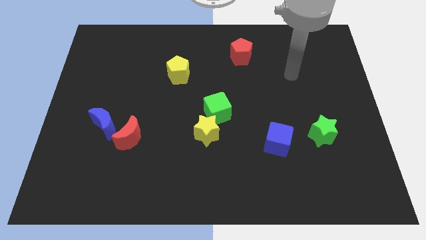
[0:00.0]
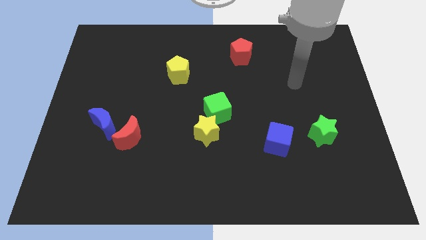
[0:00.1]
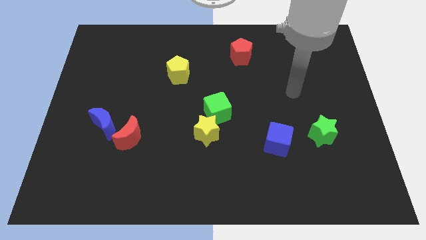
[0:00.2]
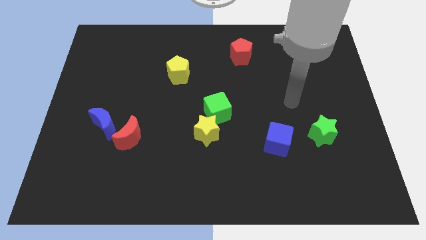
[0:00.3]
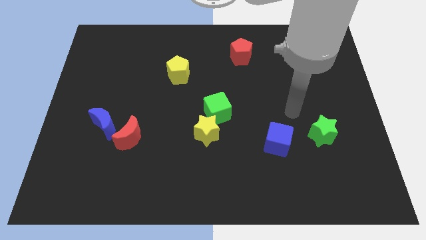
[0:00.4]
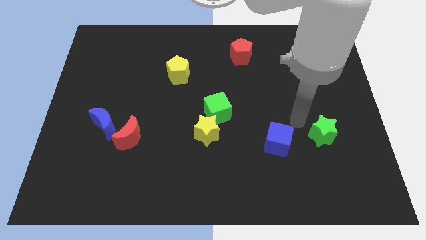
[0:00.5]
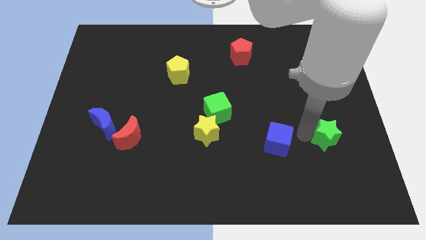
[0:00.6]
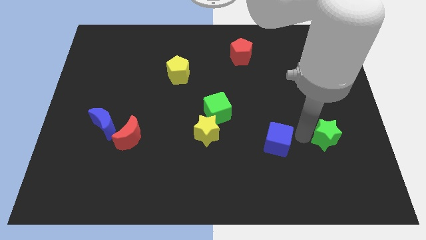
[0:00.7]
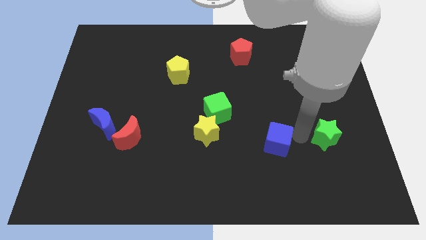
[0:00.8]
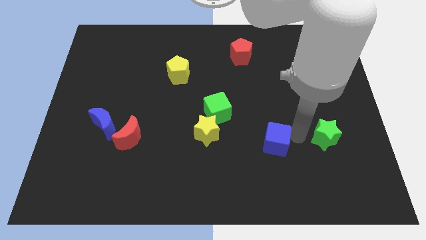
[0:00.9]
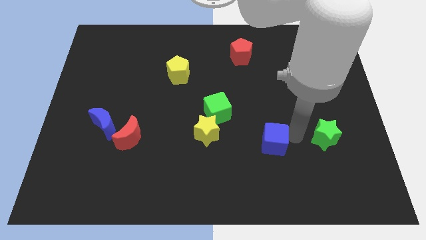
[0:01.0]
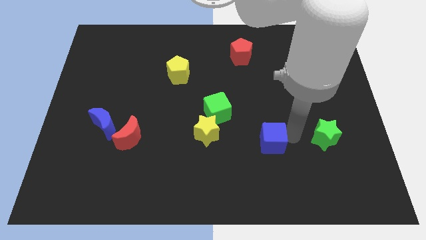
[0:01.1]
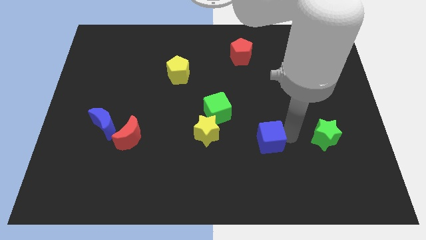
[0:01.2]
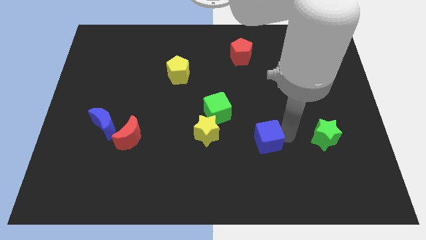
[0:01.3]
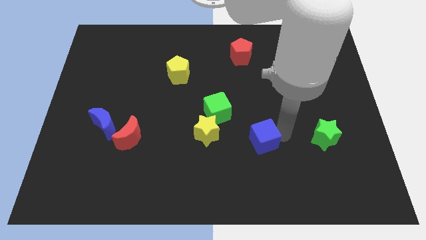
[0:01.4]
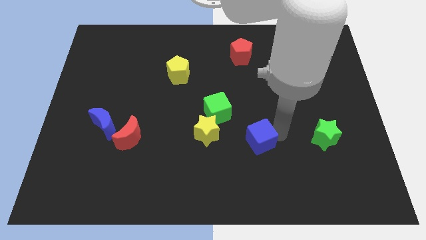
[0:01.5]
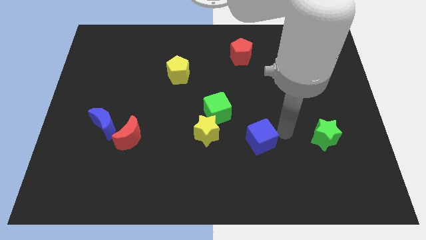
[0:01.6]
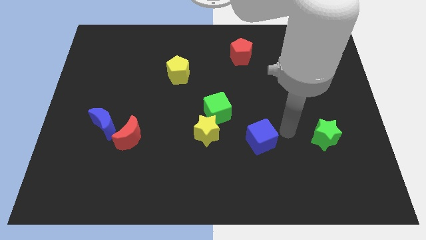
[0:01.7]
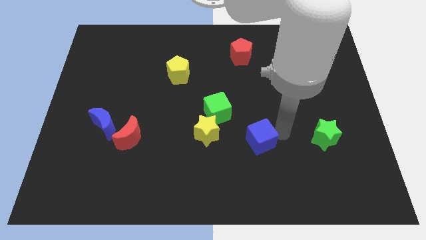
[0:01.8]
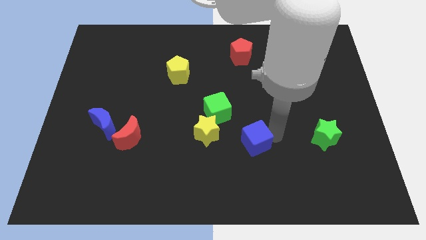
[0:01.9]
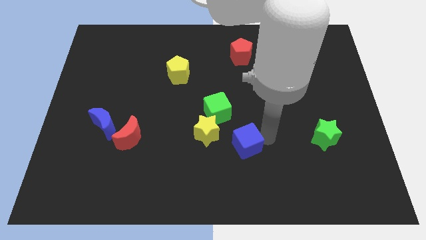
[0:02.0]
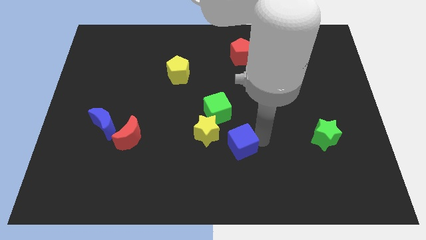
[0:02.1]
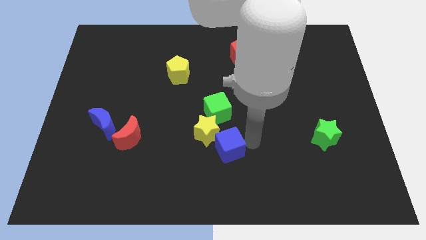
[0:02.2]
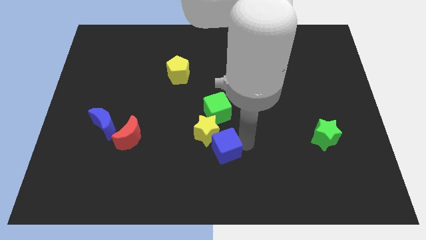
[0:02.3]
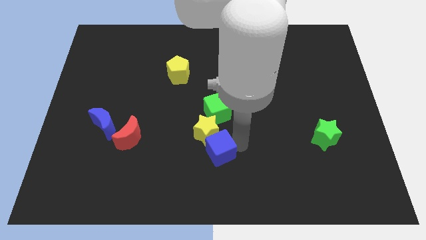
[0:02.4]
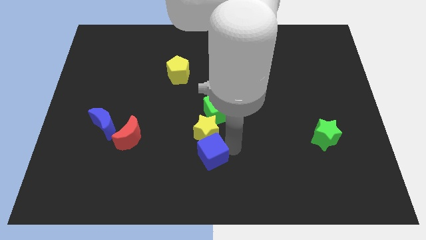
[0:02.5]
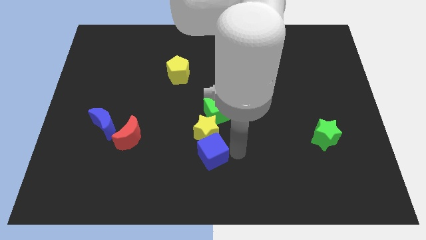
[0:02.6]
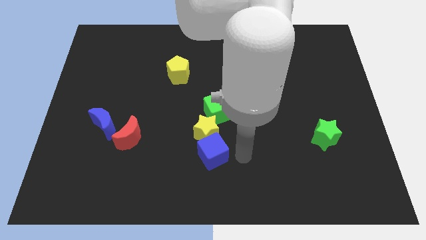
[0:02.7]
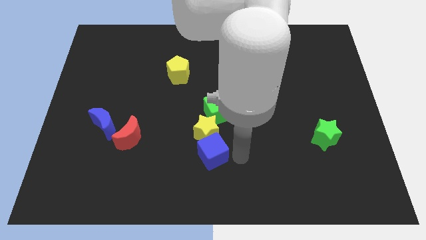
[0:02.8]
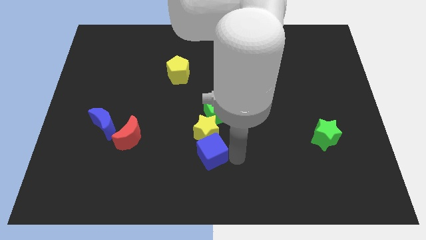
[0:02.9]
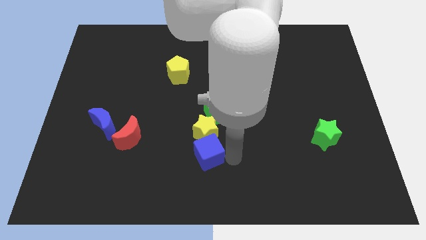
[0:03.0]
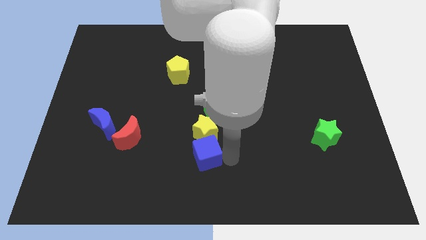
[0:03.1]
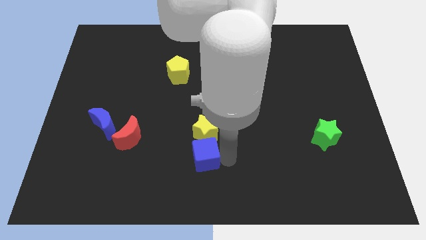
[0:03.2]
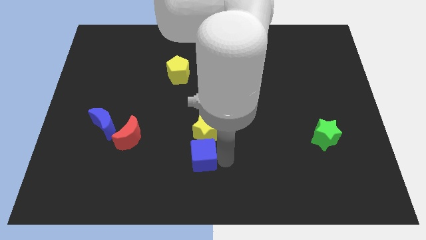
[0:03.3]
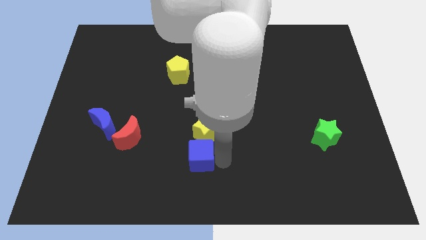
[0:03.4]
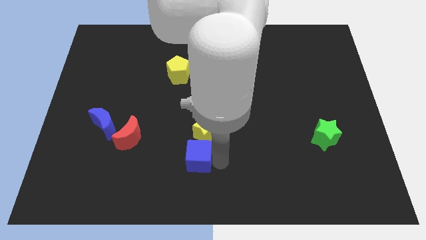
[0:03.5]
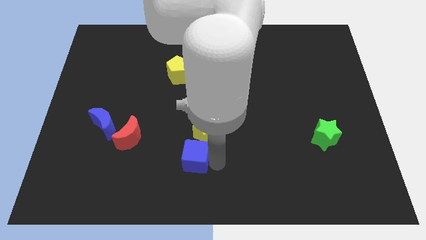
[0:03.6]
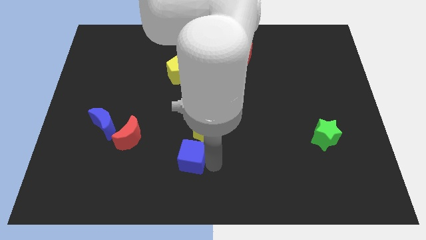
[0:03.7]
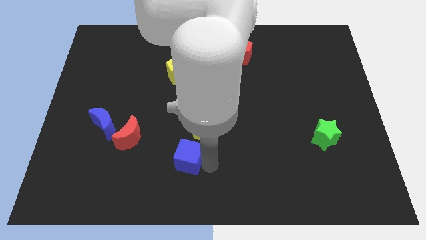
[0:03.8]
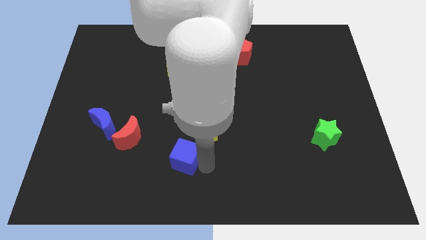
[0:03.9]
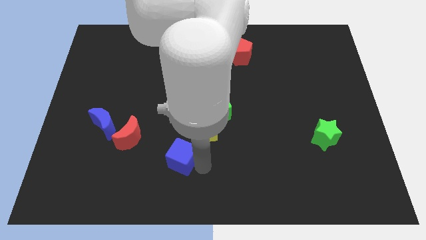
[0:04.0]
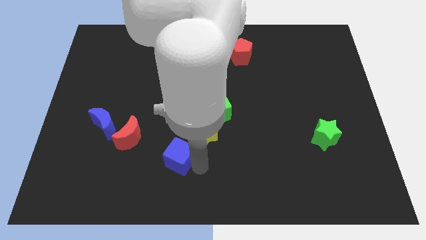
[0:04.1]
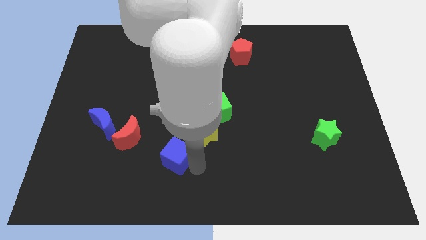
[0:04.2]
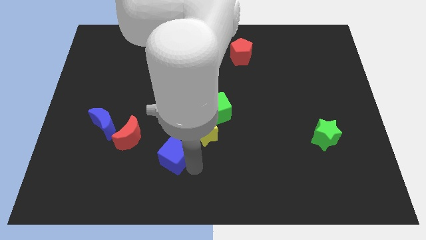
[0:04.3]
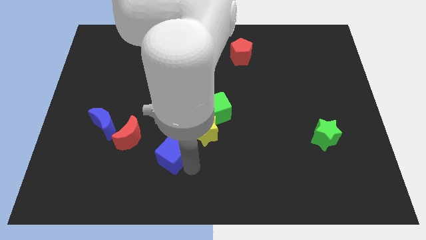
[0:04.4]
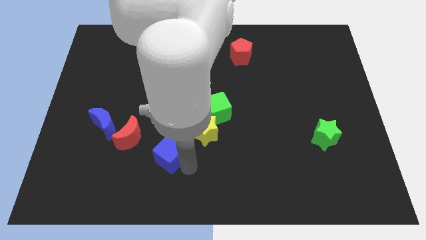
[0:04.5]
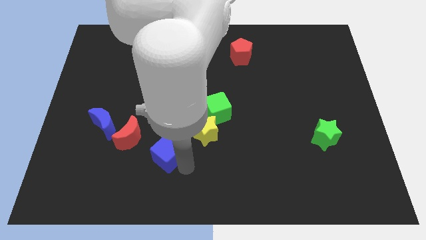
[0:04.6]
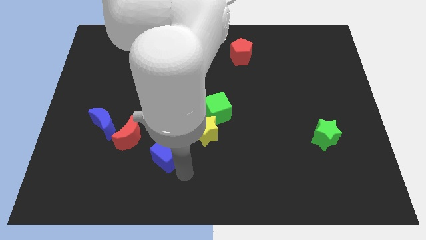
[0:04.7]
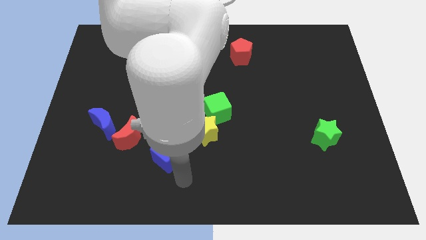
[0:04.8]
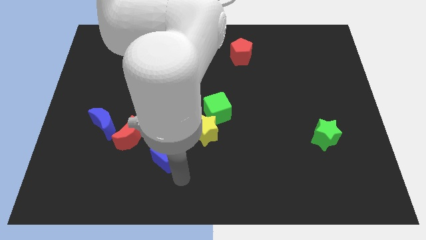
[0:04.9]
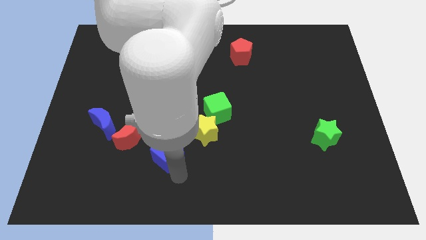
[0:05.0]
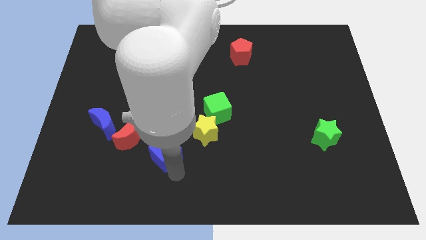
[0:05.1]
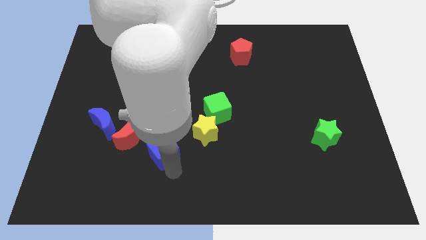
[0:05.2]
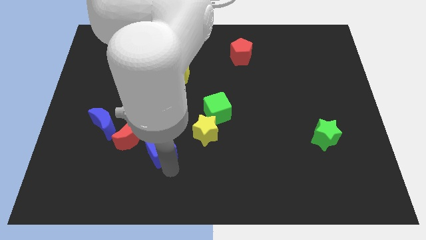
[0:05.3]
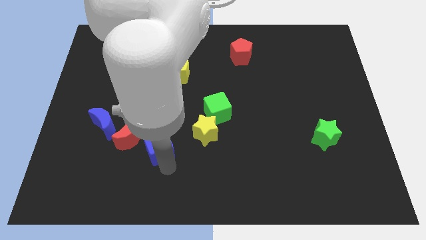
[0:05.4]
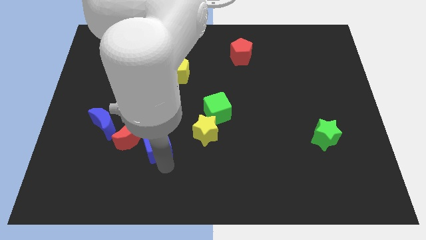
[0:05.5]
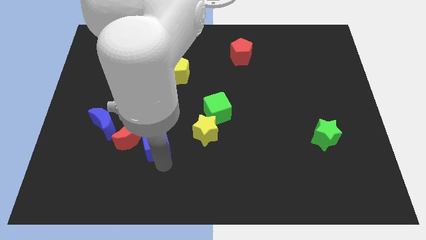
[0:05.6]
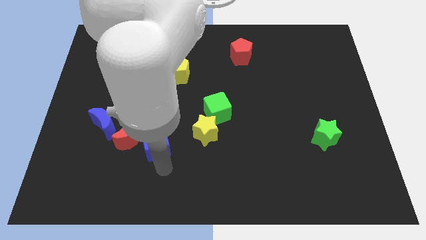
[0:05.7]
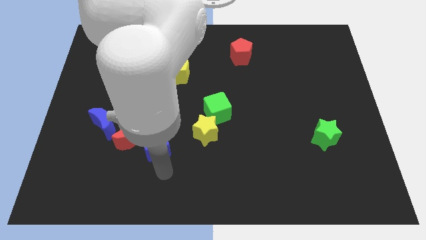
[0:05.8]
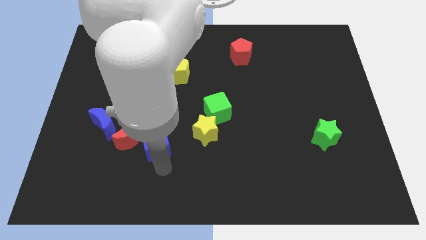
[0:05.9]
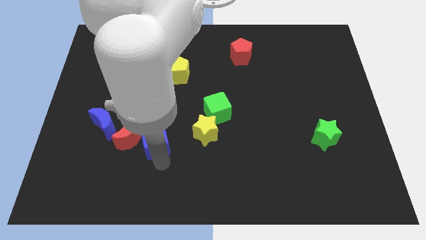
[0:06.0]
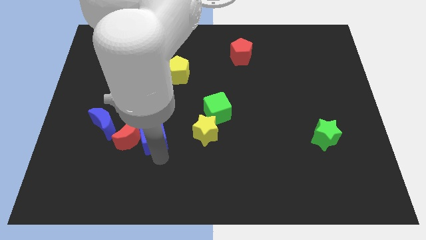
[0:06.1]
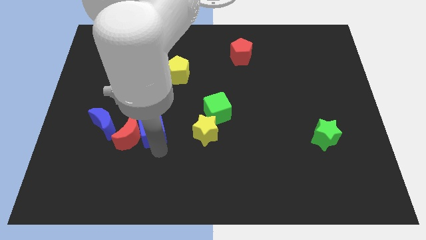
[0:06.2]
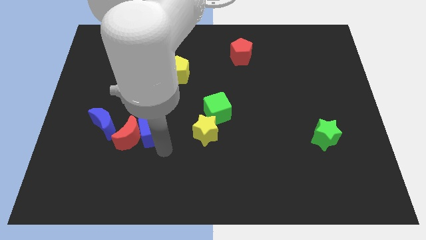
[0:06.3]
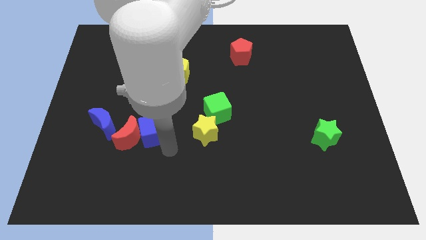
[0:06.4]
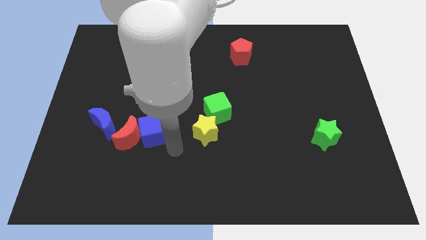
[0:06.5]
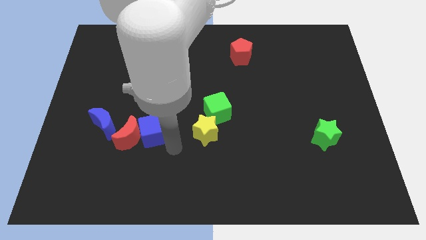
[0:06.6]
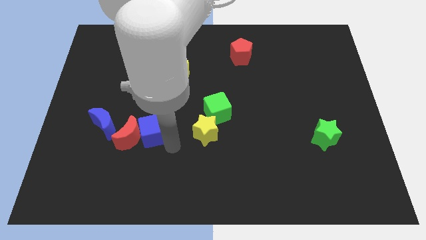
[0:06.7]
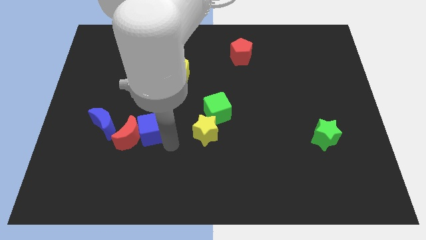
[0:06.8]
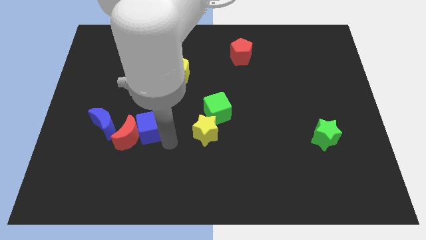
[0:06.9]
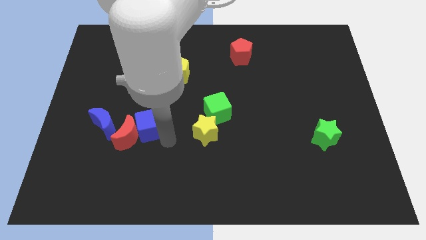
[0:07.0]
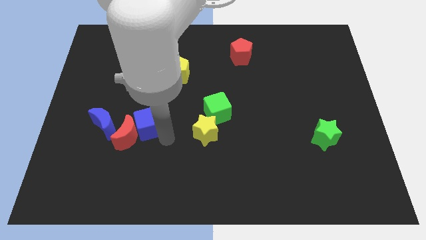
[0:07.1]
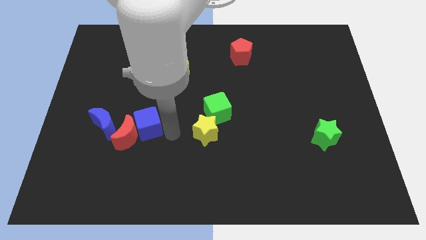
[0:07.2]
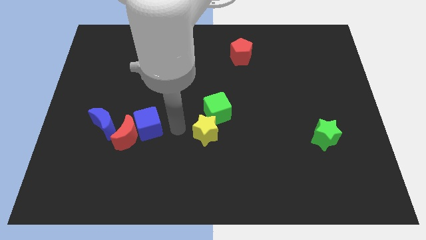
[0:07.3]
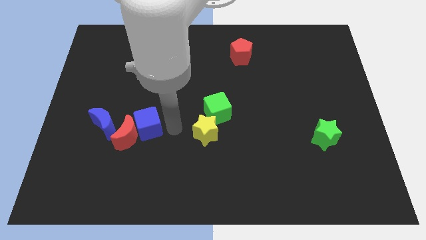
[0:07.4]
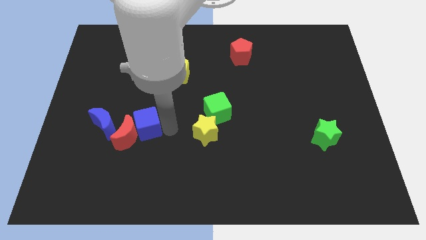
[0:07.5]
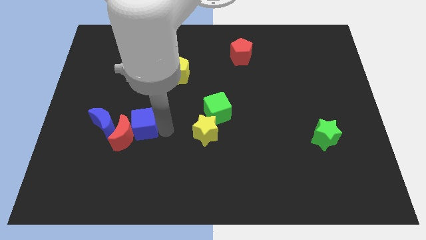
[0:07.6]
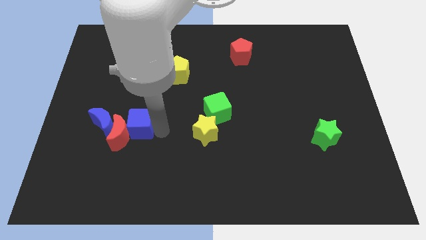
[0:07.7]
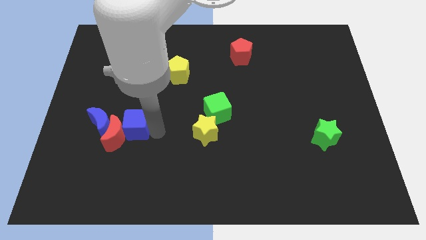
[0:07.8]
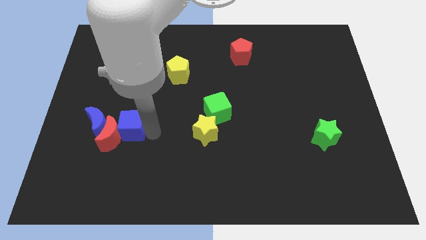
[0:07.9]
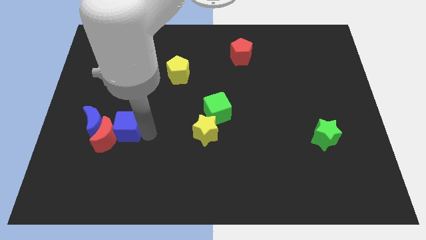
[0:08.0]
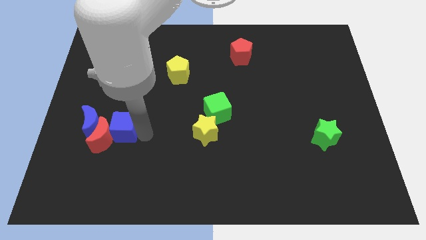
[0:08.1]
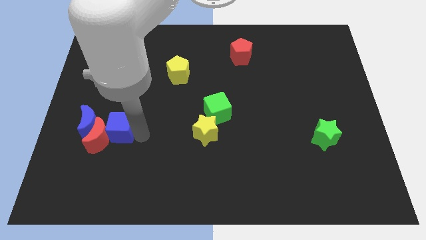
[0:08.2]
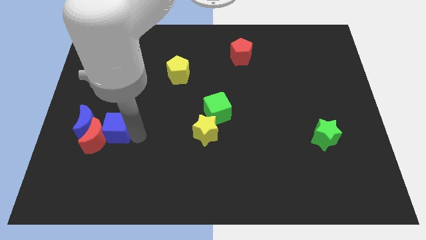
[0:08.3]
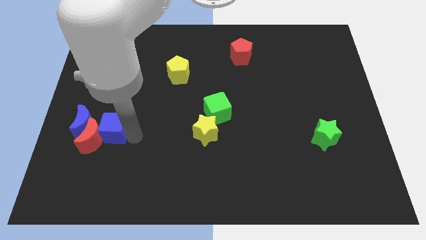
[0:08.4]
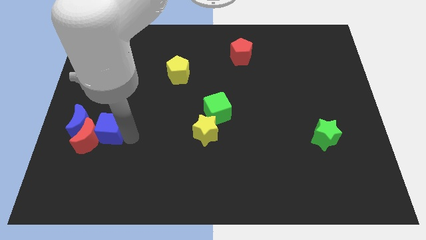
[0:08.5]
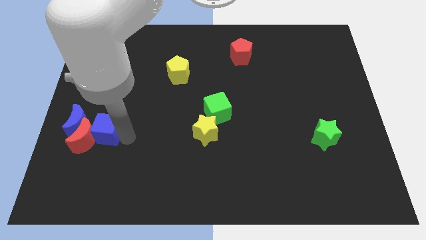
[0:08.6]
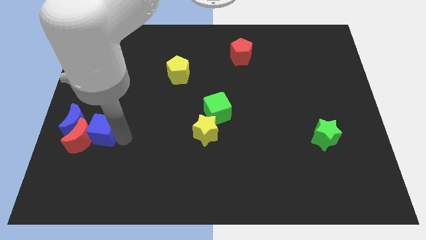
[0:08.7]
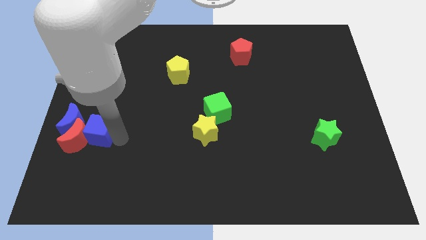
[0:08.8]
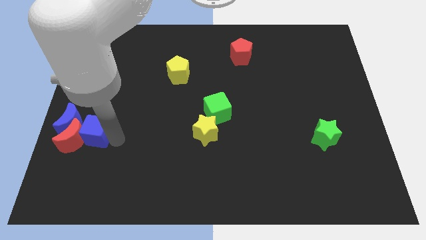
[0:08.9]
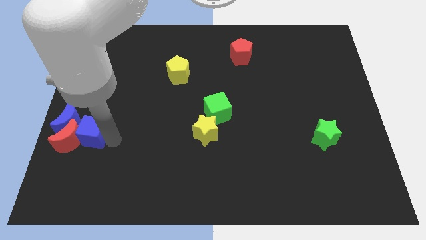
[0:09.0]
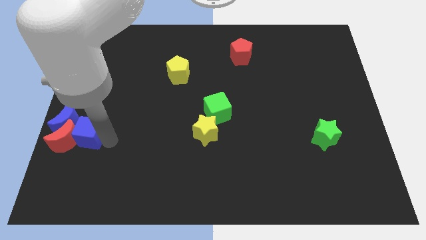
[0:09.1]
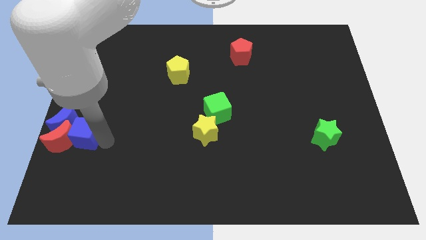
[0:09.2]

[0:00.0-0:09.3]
slide the blue cube towards the blue moon
